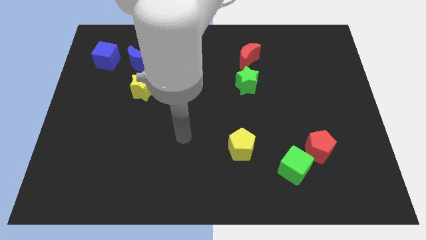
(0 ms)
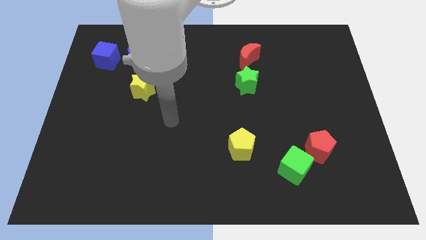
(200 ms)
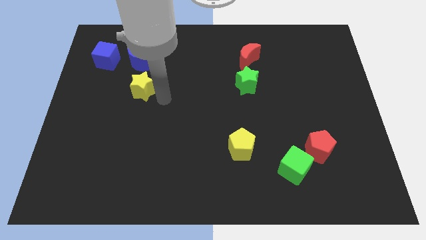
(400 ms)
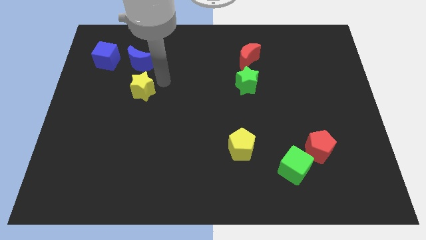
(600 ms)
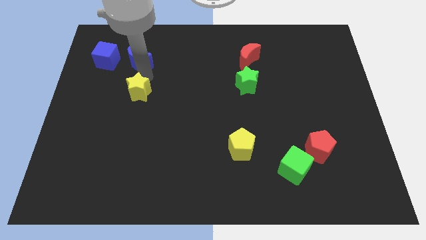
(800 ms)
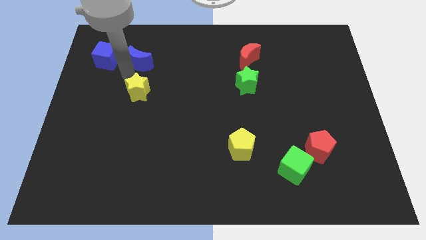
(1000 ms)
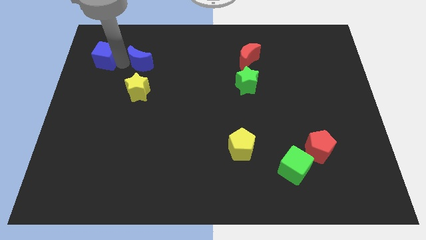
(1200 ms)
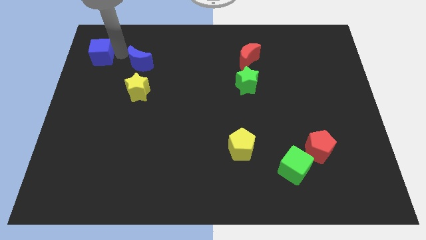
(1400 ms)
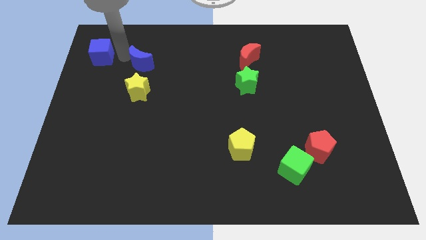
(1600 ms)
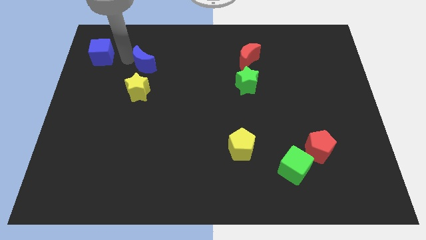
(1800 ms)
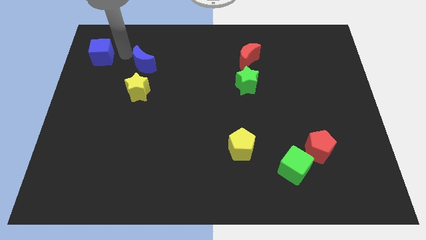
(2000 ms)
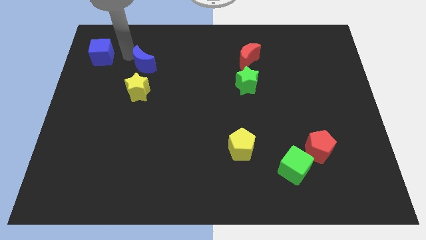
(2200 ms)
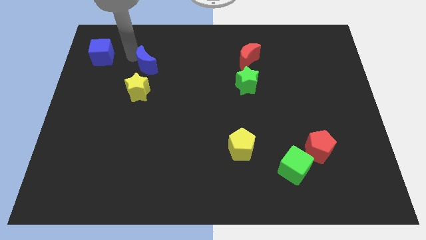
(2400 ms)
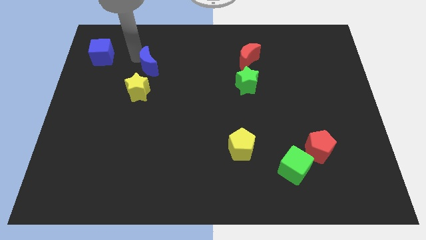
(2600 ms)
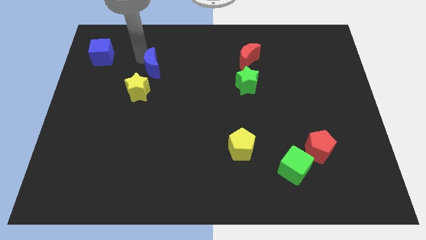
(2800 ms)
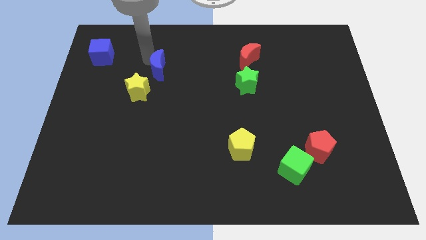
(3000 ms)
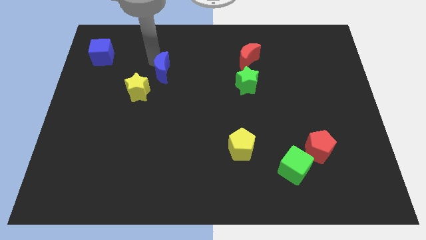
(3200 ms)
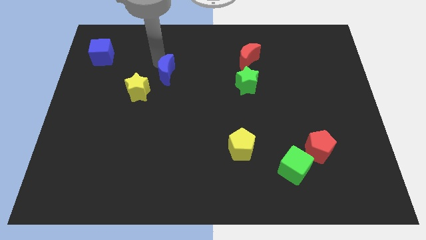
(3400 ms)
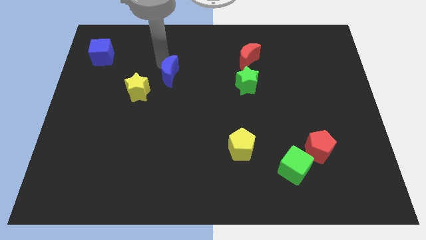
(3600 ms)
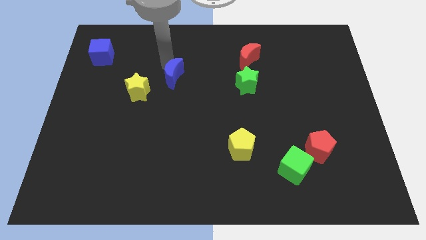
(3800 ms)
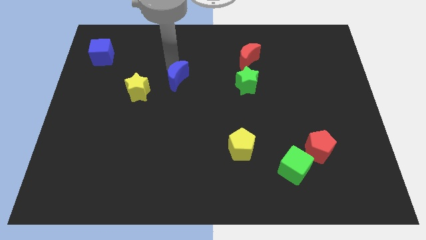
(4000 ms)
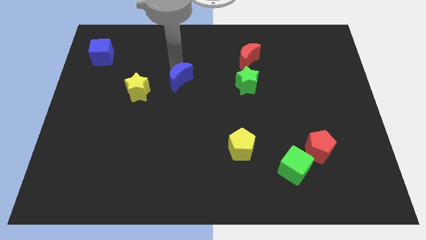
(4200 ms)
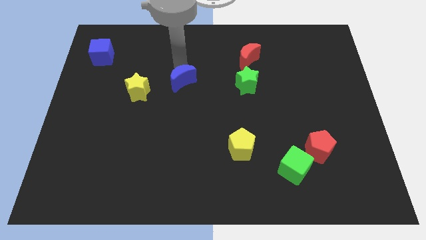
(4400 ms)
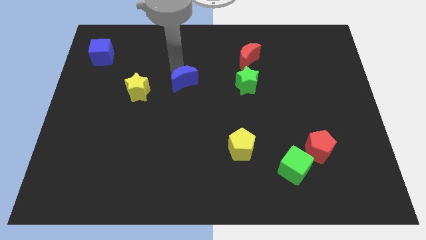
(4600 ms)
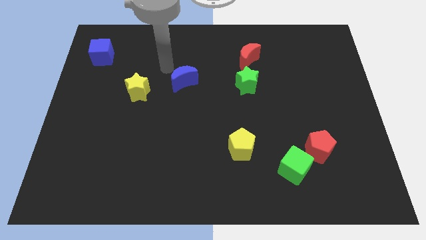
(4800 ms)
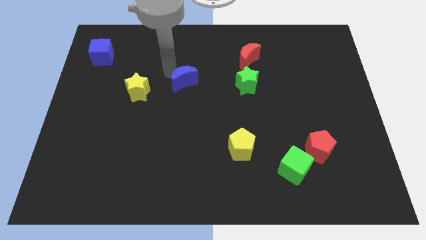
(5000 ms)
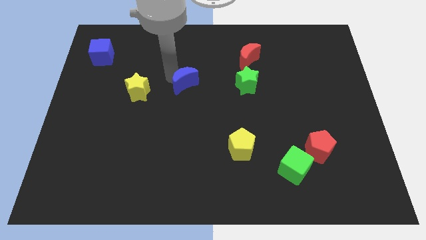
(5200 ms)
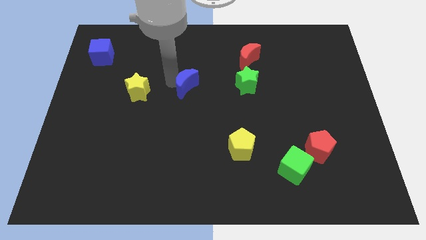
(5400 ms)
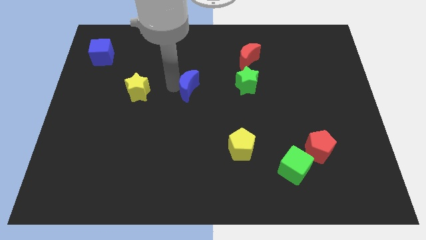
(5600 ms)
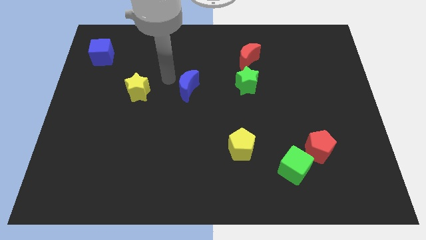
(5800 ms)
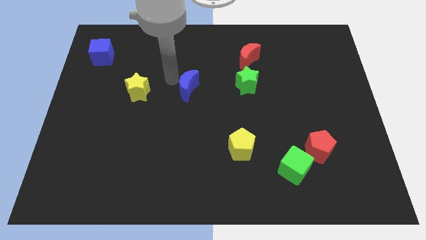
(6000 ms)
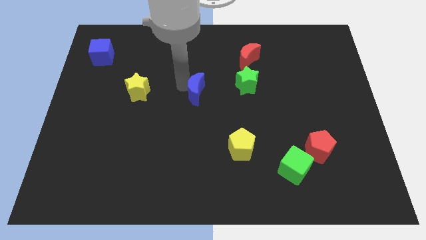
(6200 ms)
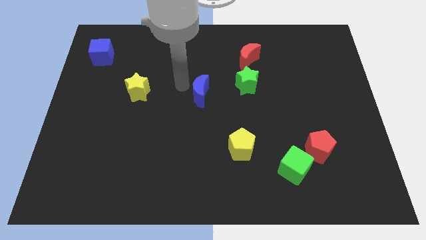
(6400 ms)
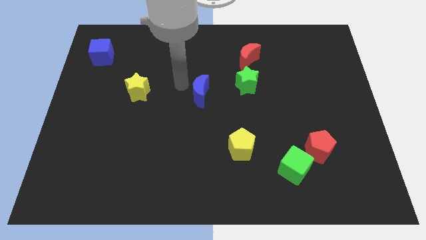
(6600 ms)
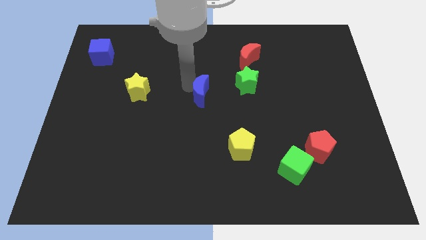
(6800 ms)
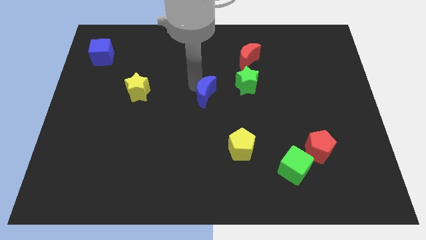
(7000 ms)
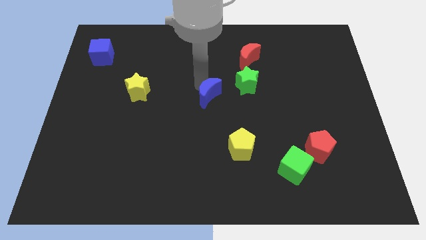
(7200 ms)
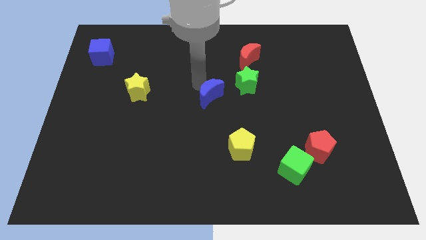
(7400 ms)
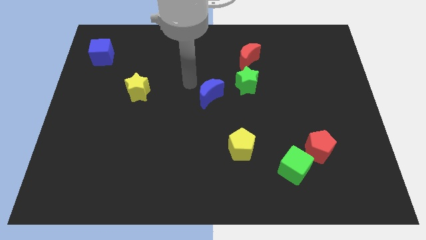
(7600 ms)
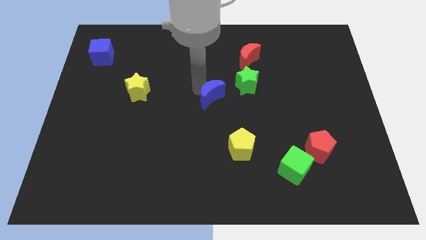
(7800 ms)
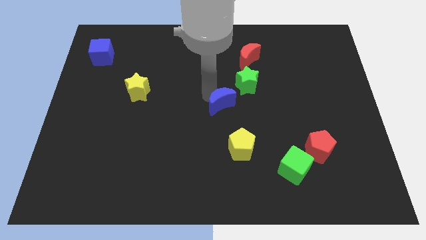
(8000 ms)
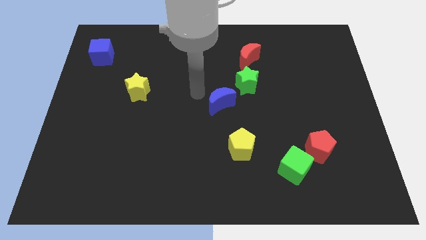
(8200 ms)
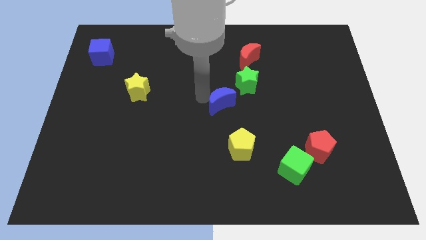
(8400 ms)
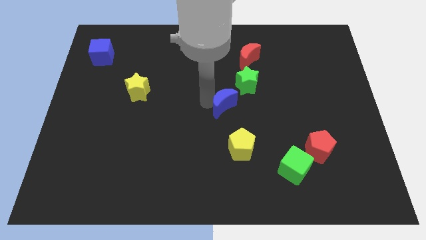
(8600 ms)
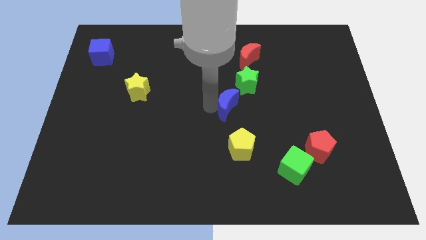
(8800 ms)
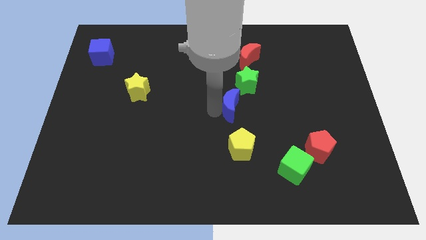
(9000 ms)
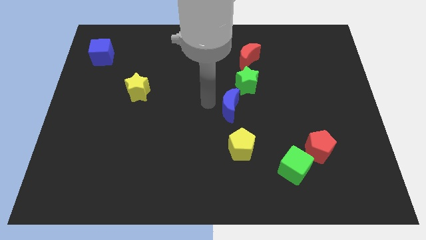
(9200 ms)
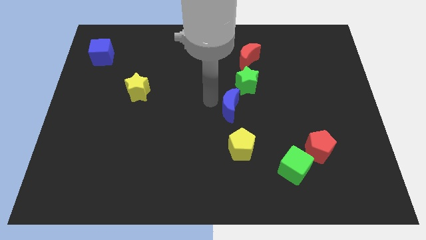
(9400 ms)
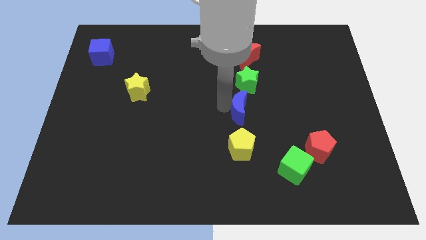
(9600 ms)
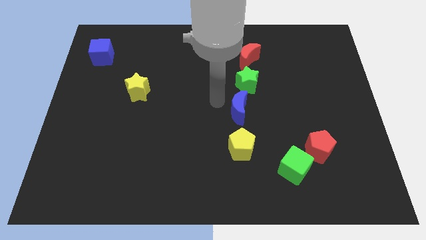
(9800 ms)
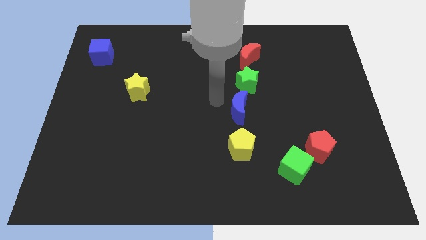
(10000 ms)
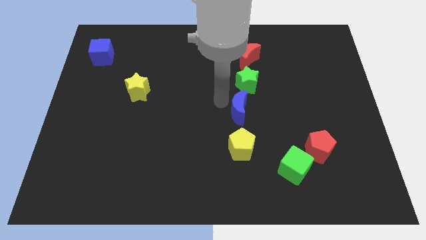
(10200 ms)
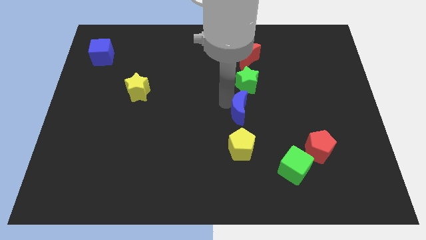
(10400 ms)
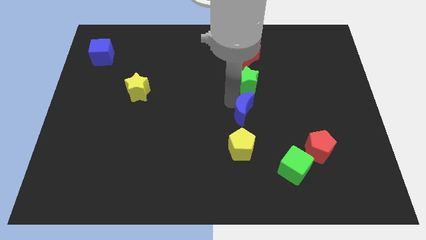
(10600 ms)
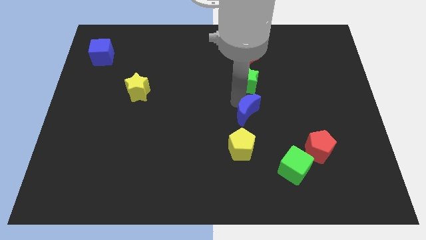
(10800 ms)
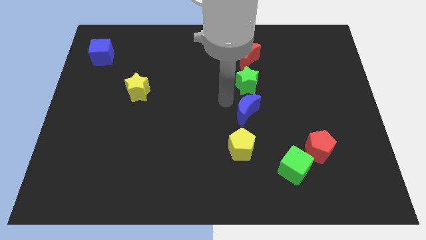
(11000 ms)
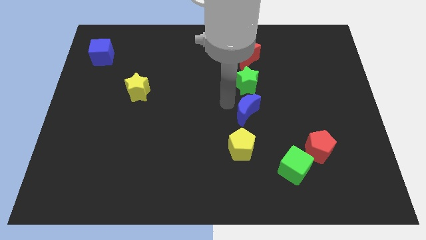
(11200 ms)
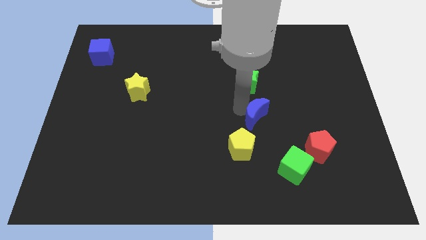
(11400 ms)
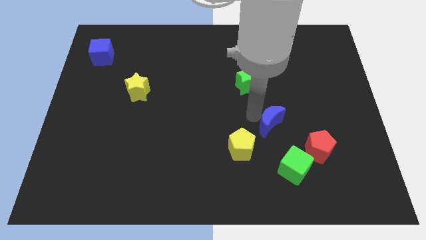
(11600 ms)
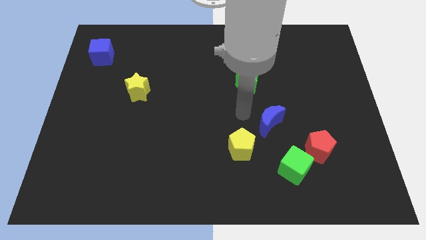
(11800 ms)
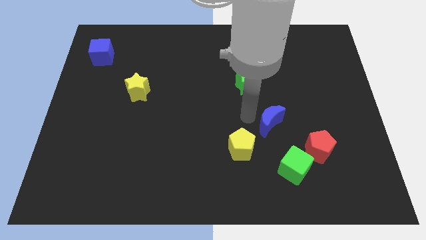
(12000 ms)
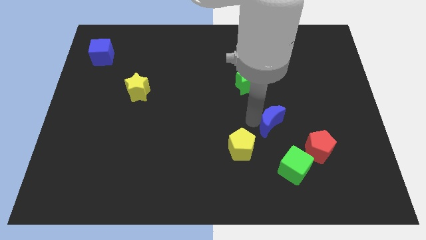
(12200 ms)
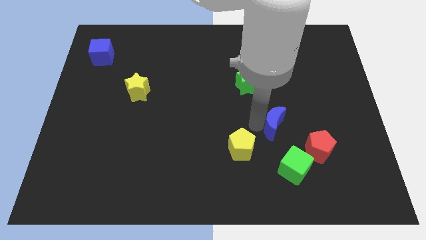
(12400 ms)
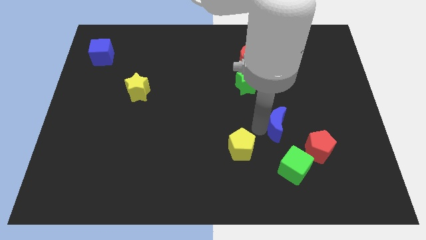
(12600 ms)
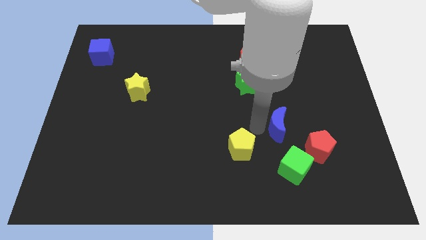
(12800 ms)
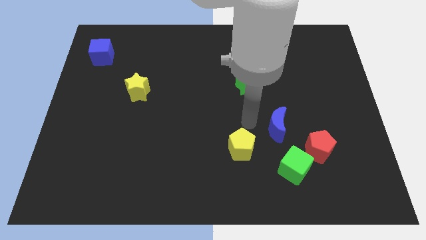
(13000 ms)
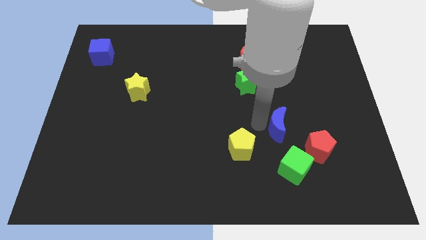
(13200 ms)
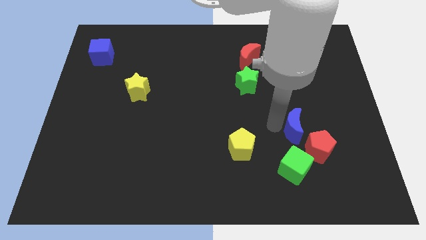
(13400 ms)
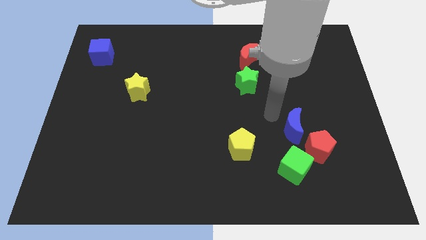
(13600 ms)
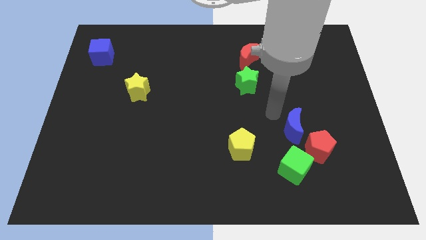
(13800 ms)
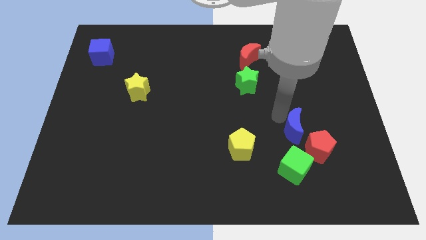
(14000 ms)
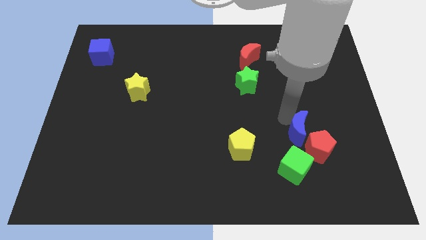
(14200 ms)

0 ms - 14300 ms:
put the blue moon towards the red pentagon
